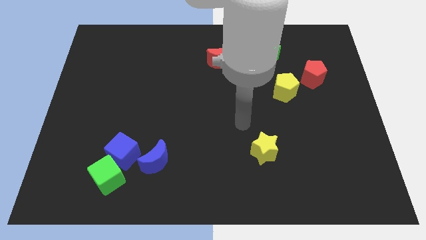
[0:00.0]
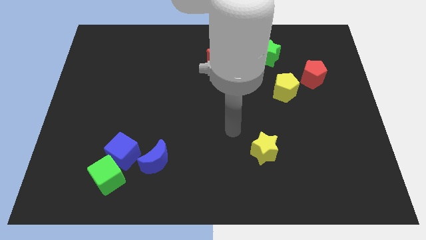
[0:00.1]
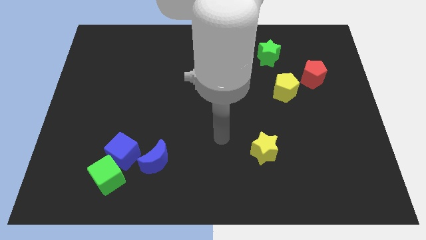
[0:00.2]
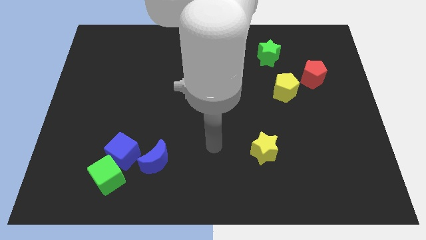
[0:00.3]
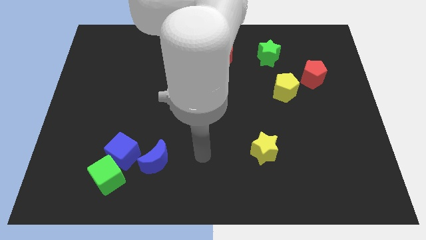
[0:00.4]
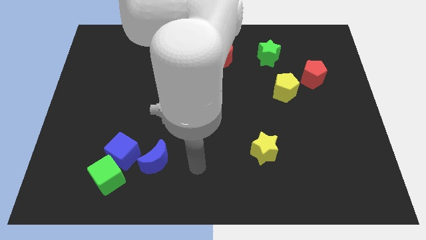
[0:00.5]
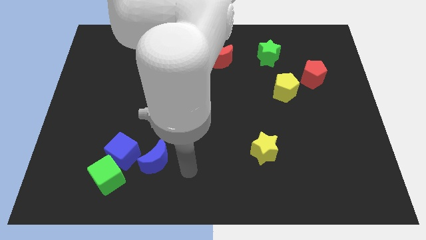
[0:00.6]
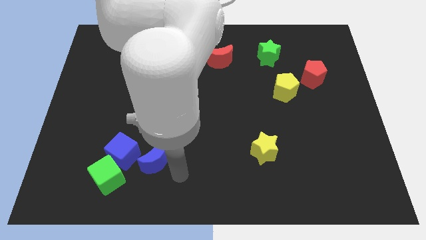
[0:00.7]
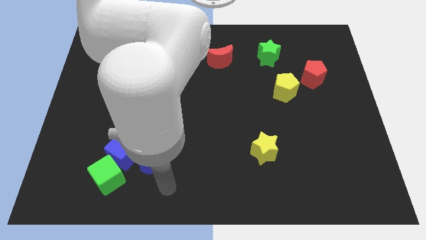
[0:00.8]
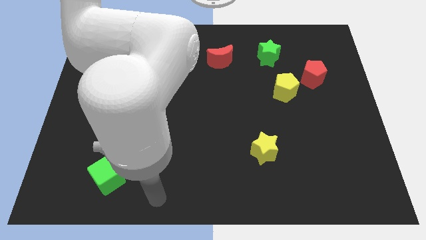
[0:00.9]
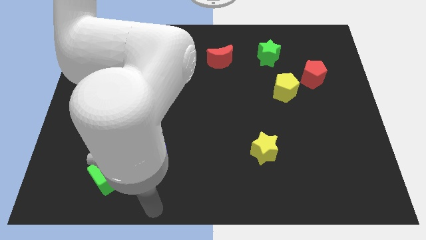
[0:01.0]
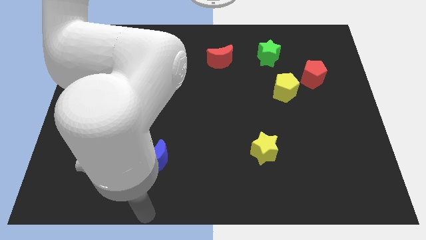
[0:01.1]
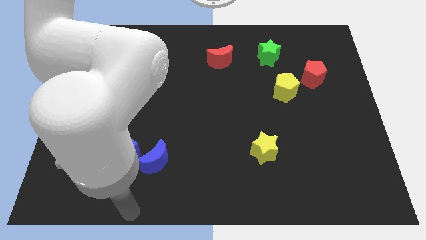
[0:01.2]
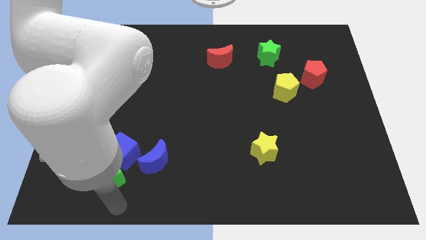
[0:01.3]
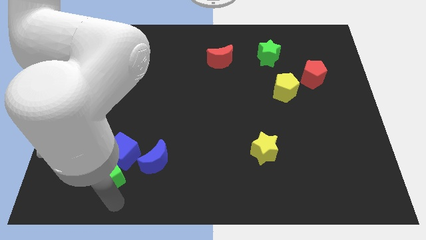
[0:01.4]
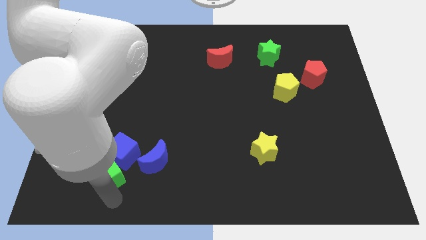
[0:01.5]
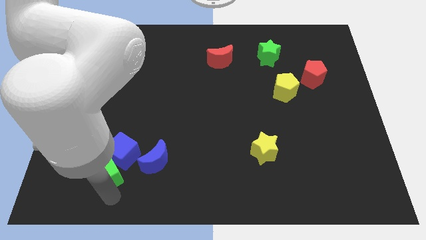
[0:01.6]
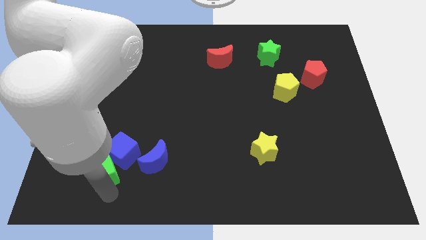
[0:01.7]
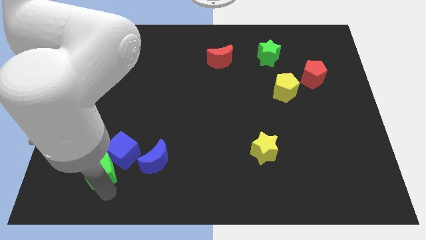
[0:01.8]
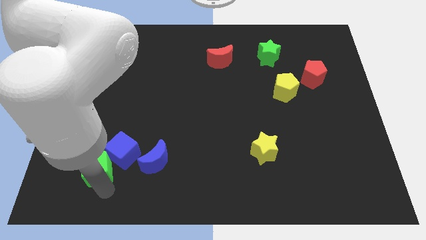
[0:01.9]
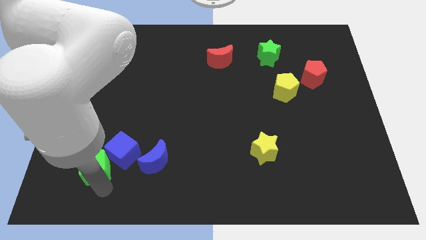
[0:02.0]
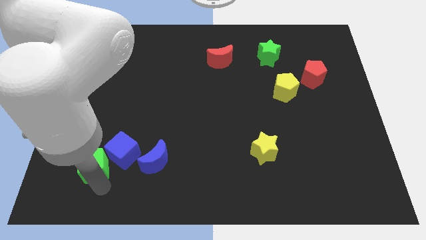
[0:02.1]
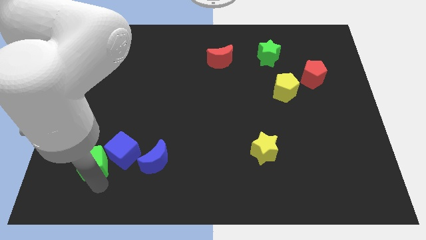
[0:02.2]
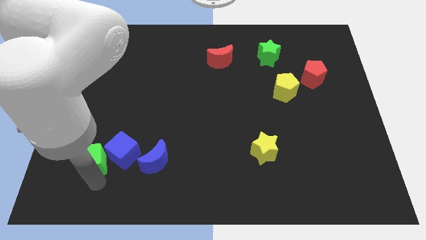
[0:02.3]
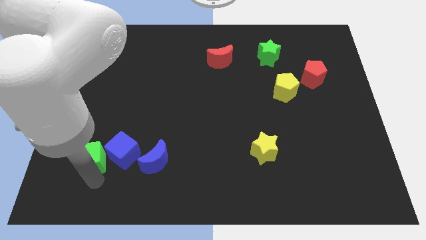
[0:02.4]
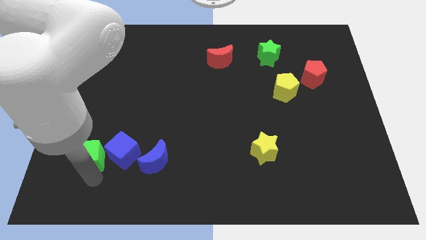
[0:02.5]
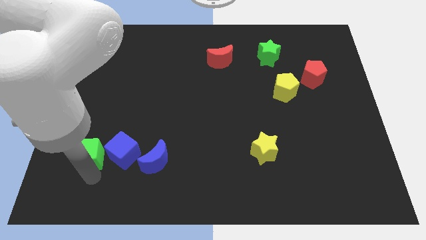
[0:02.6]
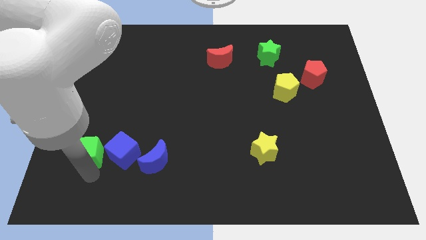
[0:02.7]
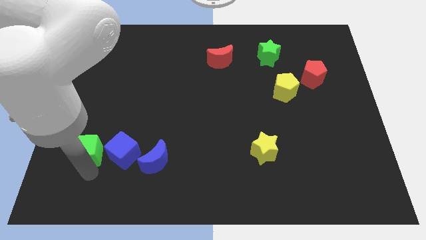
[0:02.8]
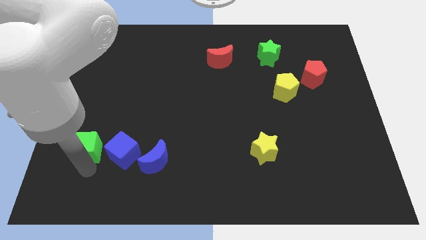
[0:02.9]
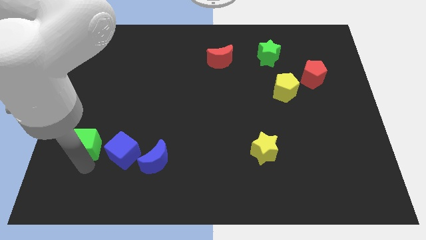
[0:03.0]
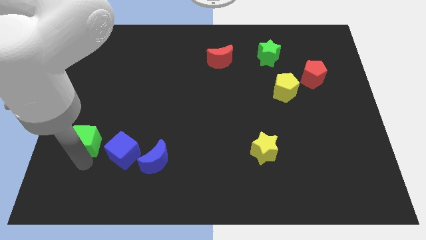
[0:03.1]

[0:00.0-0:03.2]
slide the green cube a little upwards

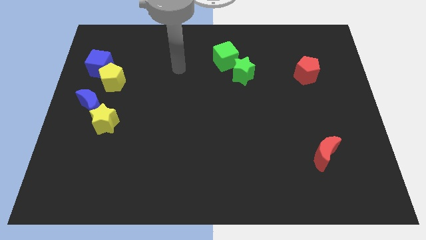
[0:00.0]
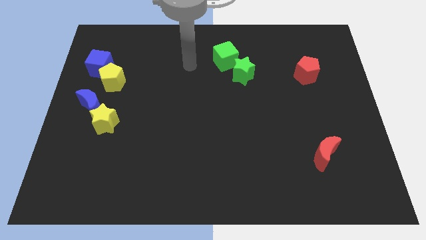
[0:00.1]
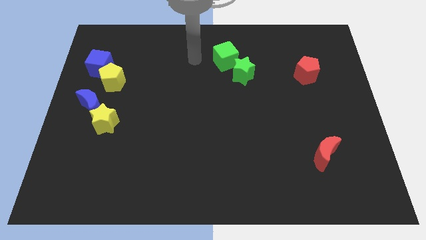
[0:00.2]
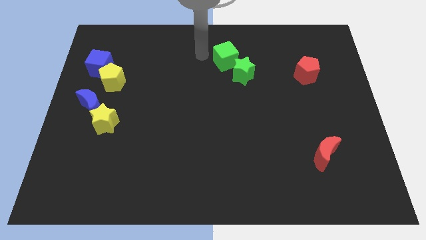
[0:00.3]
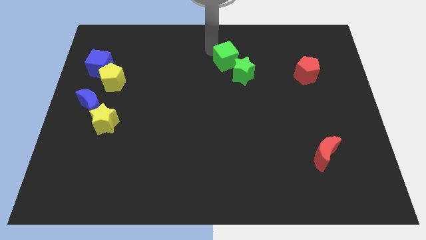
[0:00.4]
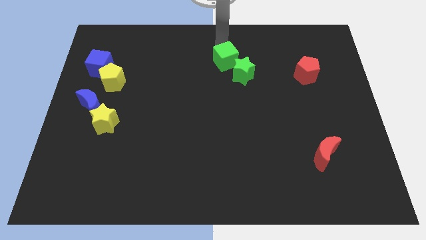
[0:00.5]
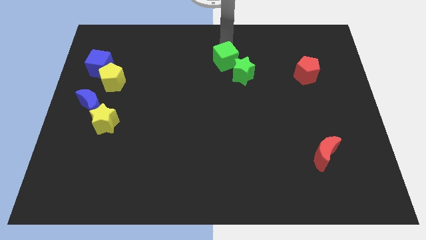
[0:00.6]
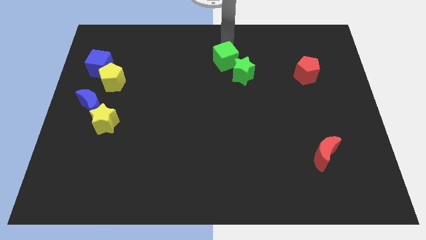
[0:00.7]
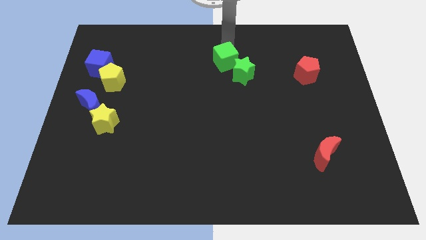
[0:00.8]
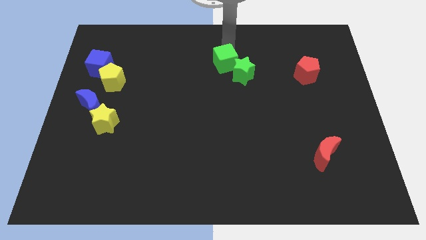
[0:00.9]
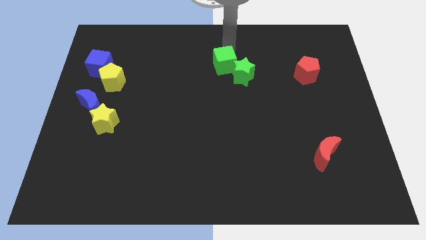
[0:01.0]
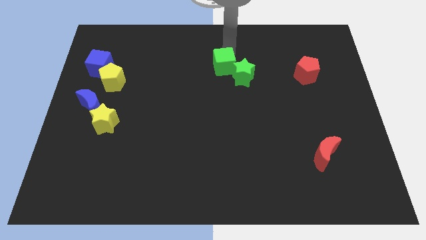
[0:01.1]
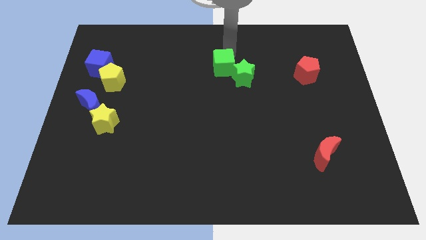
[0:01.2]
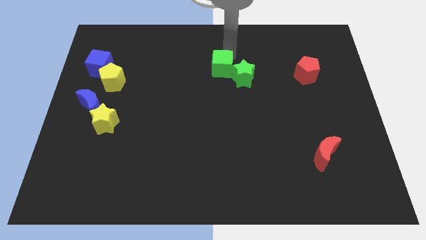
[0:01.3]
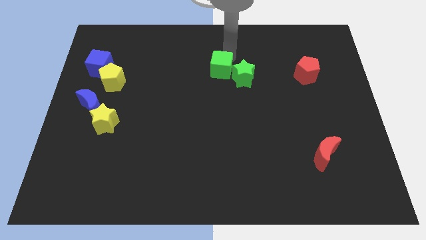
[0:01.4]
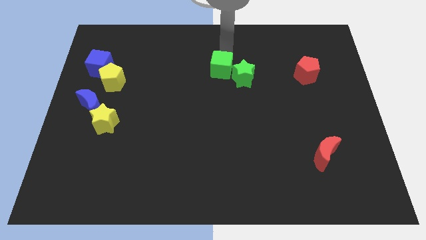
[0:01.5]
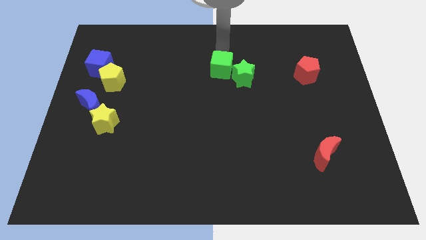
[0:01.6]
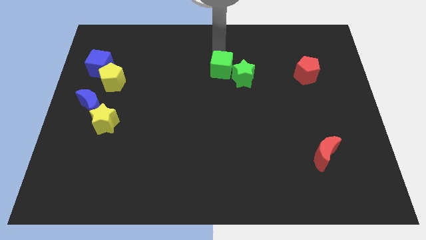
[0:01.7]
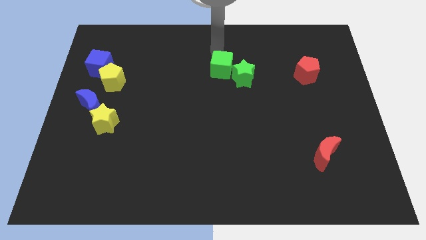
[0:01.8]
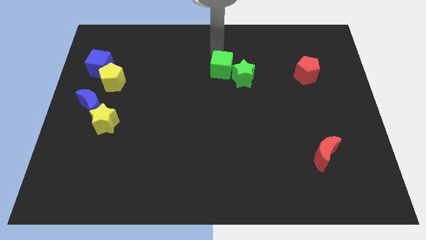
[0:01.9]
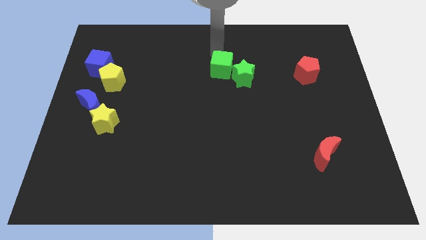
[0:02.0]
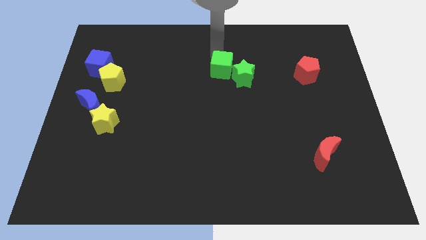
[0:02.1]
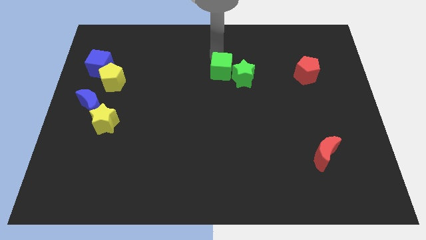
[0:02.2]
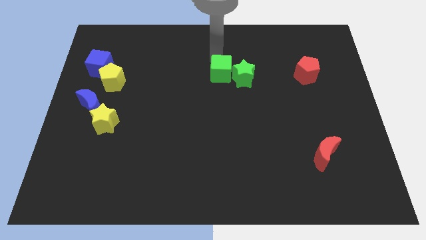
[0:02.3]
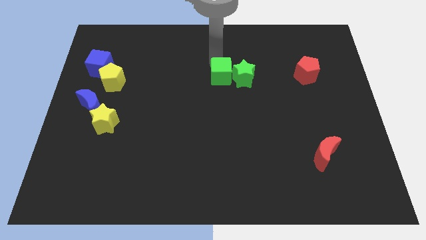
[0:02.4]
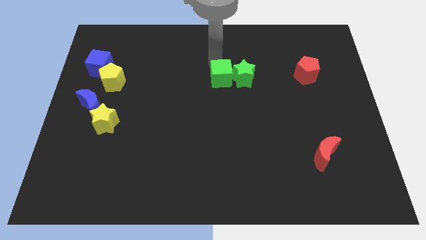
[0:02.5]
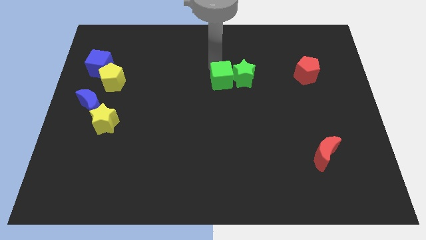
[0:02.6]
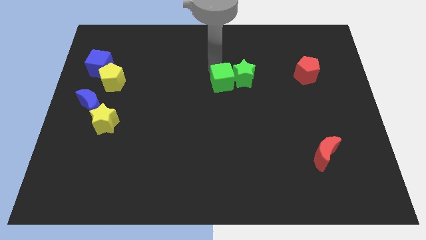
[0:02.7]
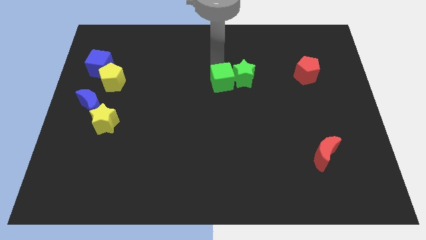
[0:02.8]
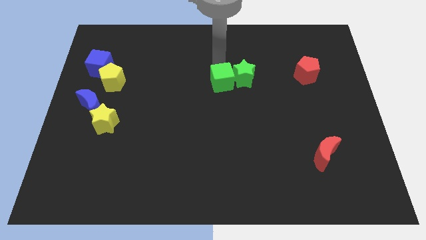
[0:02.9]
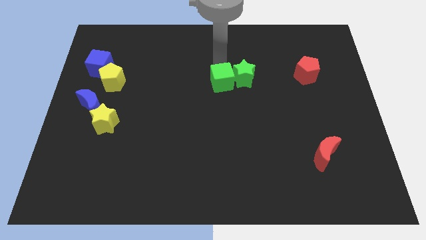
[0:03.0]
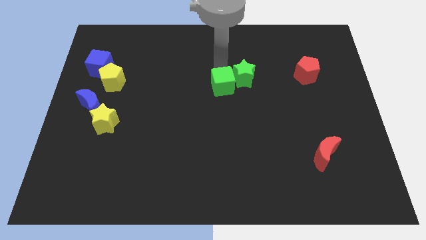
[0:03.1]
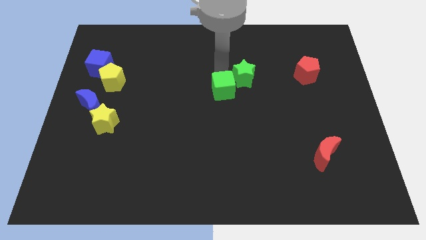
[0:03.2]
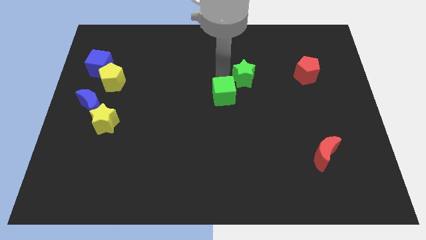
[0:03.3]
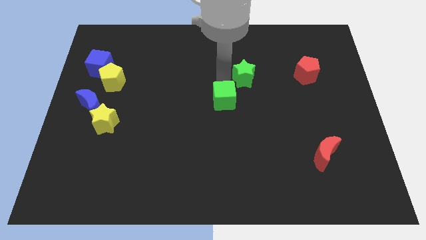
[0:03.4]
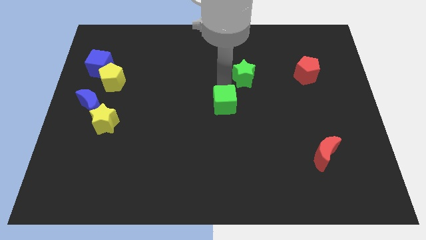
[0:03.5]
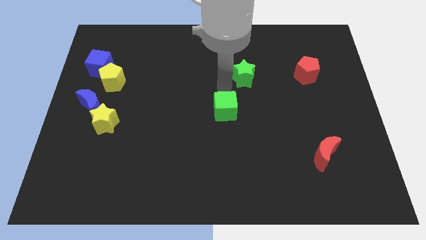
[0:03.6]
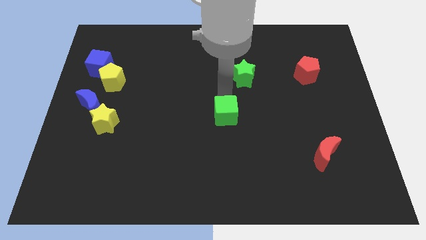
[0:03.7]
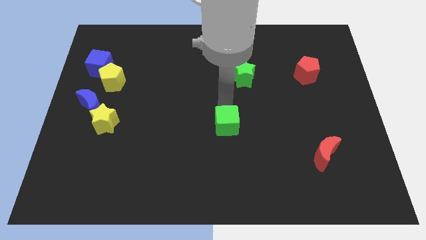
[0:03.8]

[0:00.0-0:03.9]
push the green cube down

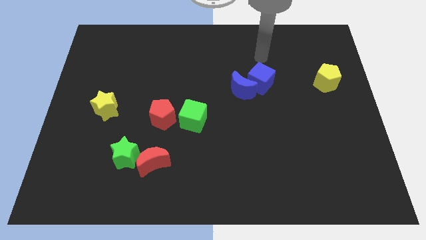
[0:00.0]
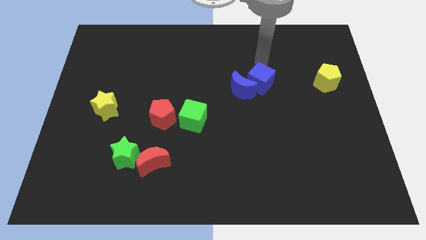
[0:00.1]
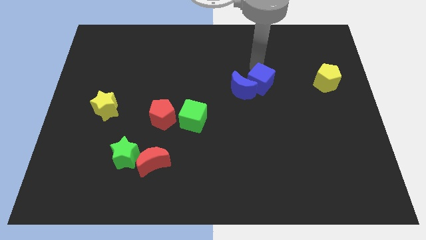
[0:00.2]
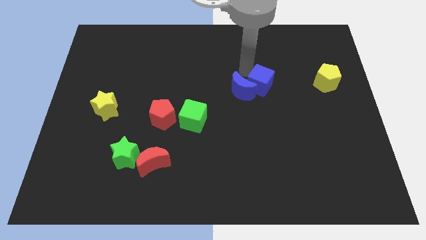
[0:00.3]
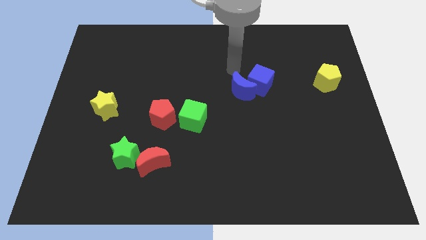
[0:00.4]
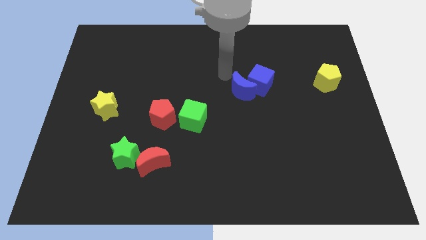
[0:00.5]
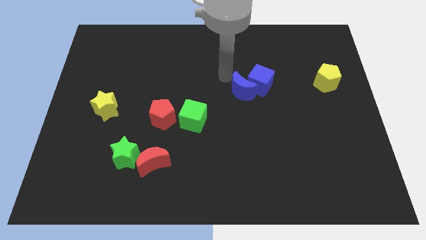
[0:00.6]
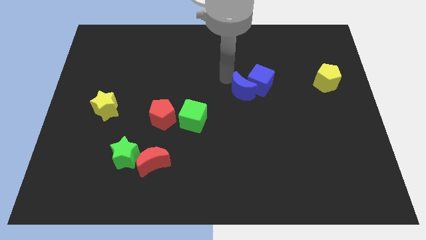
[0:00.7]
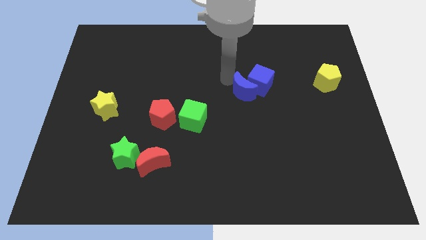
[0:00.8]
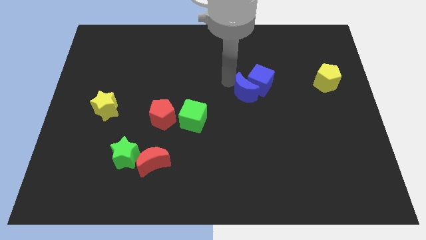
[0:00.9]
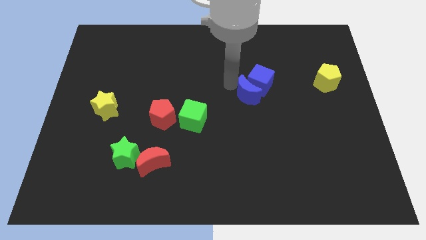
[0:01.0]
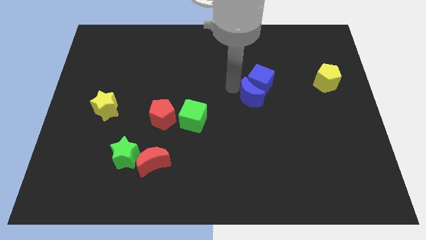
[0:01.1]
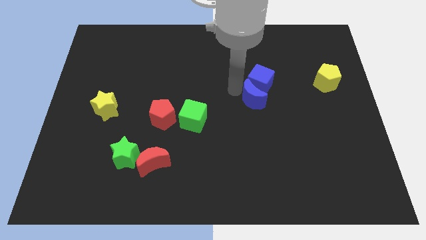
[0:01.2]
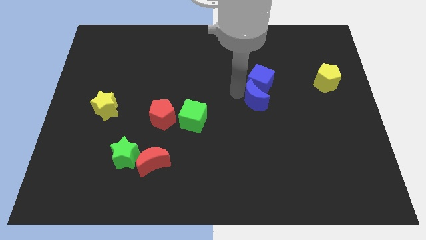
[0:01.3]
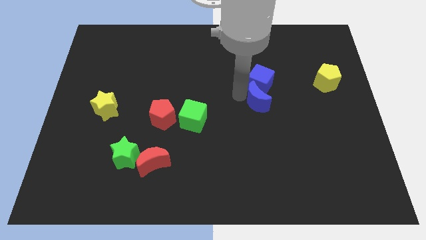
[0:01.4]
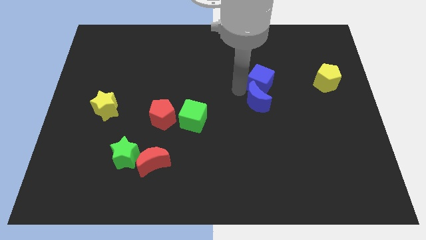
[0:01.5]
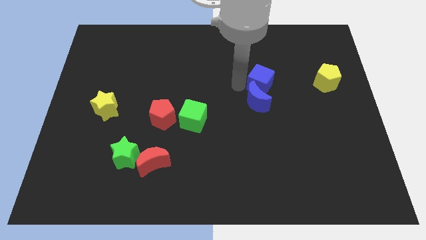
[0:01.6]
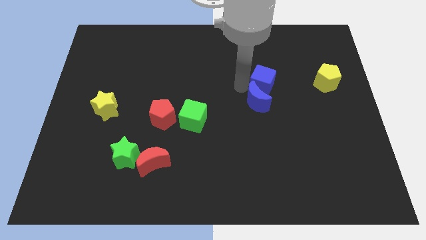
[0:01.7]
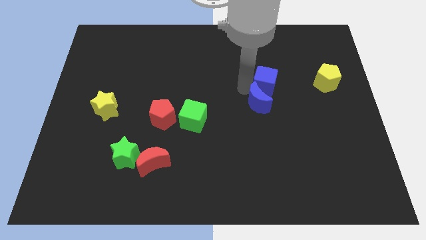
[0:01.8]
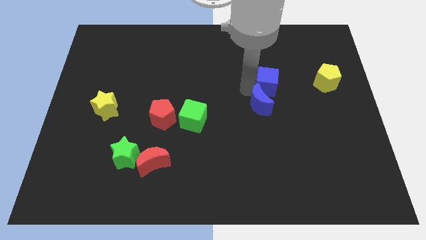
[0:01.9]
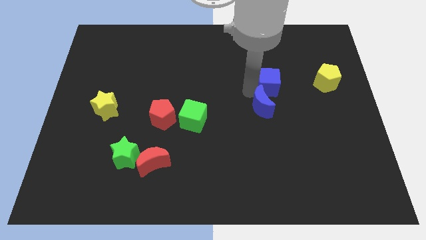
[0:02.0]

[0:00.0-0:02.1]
slightly slide the blue moon down and then to the right
